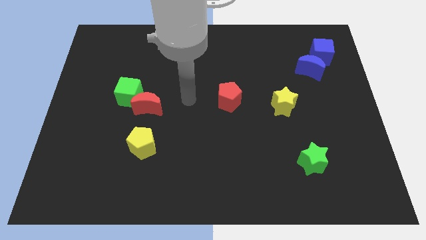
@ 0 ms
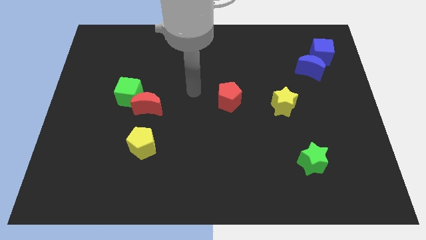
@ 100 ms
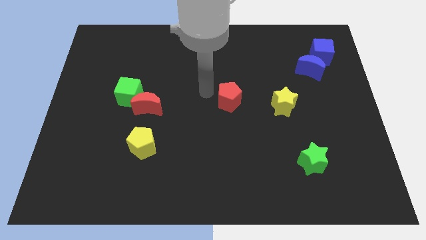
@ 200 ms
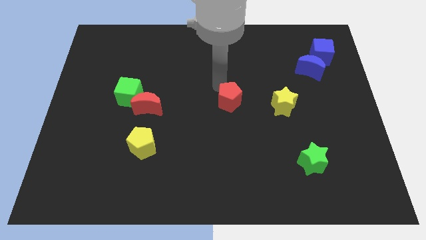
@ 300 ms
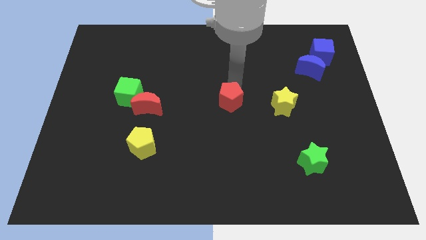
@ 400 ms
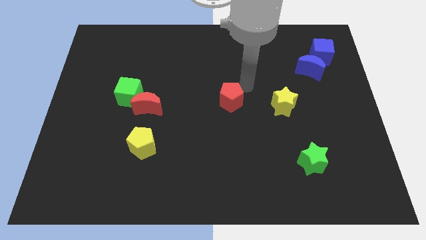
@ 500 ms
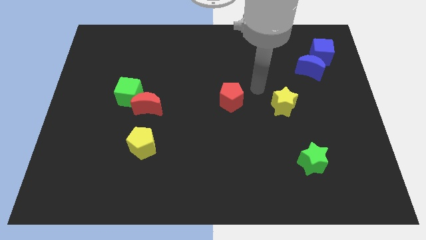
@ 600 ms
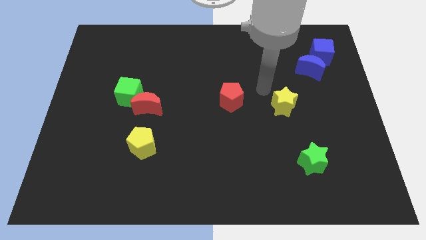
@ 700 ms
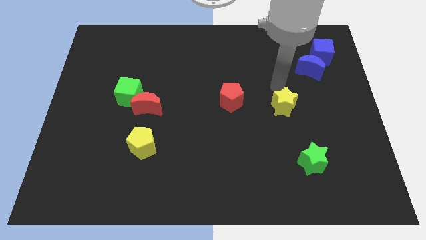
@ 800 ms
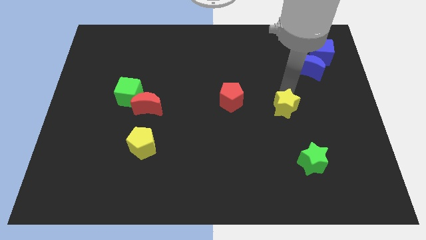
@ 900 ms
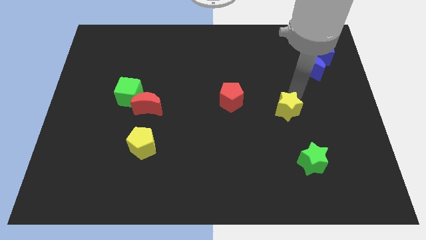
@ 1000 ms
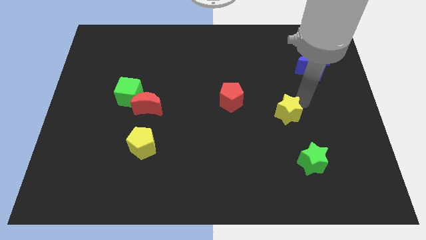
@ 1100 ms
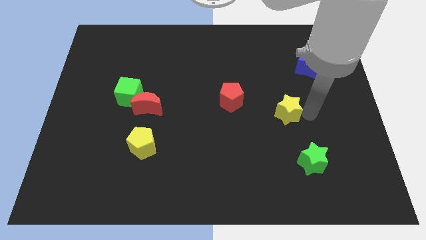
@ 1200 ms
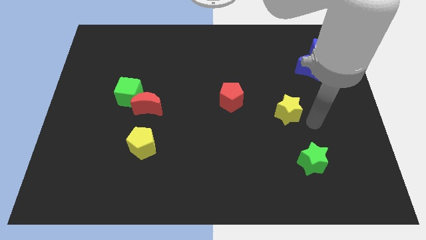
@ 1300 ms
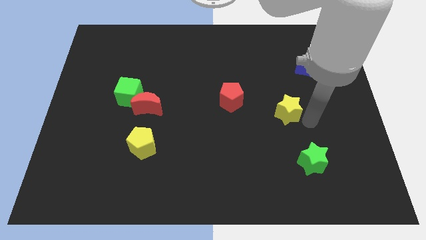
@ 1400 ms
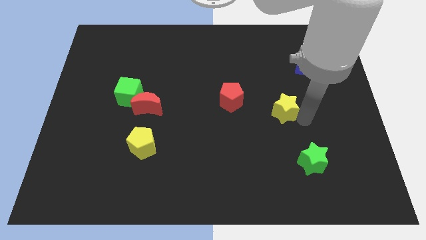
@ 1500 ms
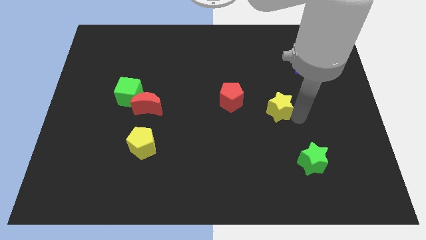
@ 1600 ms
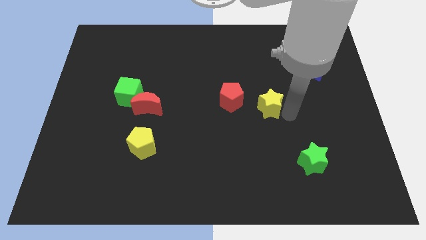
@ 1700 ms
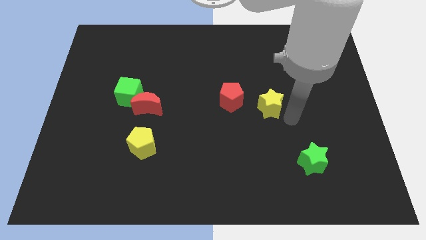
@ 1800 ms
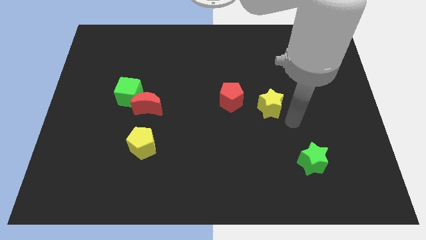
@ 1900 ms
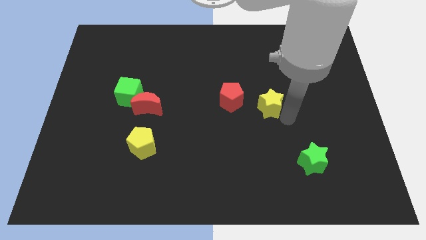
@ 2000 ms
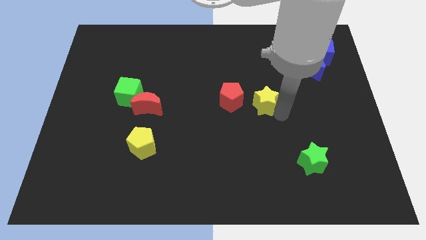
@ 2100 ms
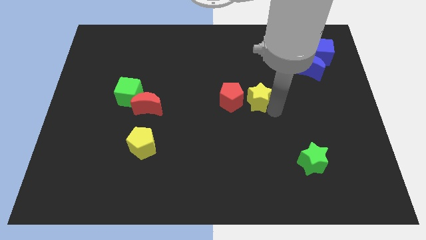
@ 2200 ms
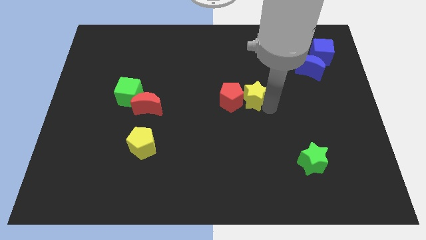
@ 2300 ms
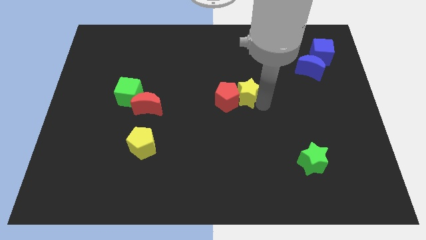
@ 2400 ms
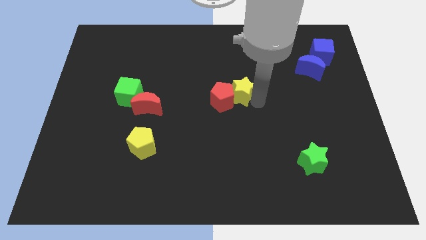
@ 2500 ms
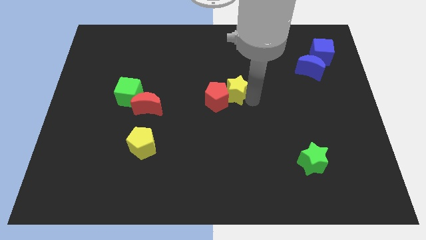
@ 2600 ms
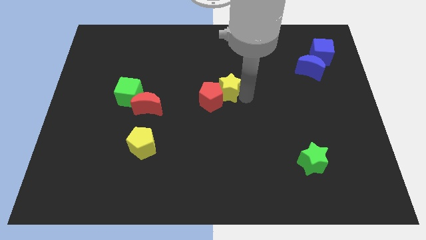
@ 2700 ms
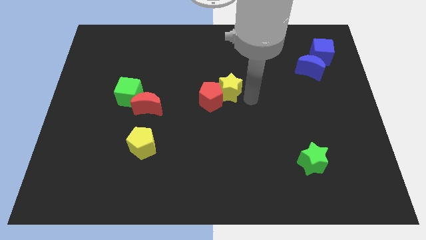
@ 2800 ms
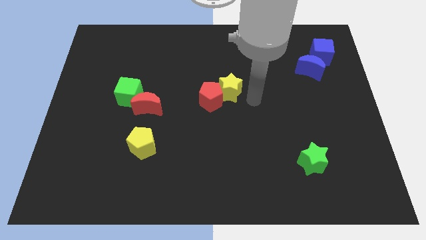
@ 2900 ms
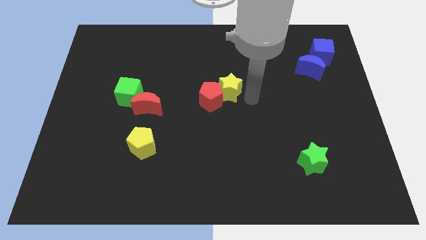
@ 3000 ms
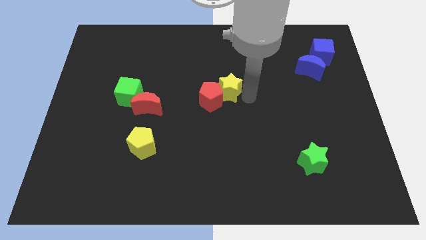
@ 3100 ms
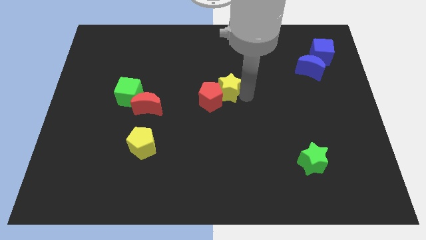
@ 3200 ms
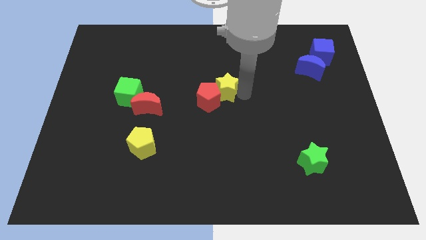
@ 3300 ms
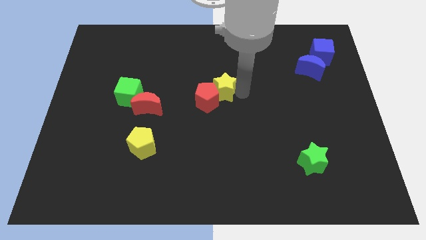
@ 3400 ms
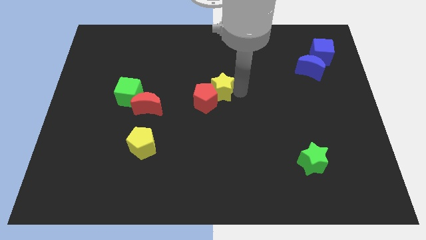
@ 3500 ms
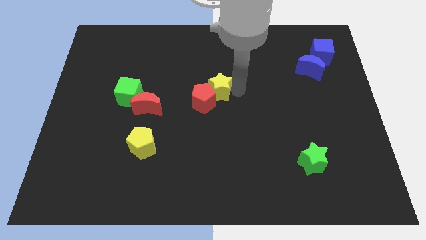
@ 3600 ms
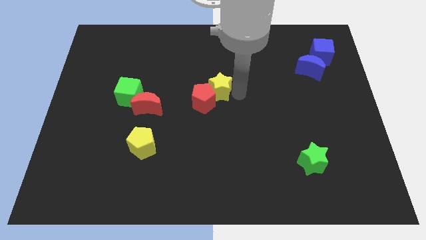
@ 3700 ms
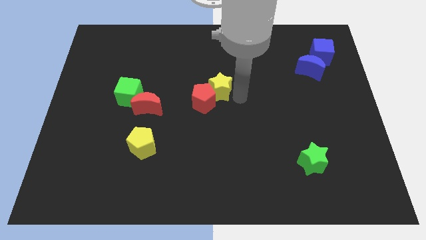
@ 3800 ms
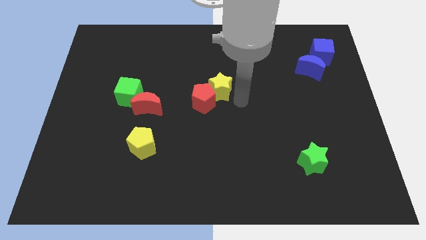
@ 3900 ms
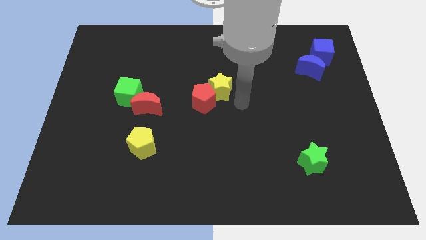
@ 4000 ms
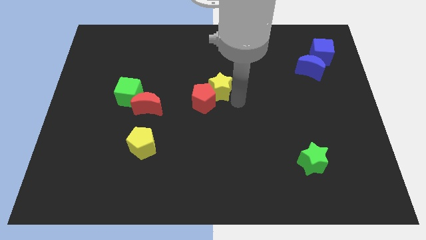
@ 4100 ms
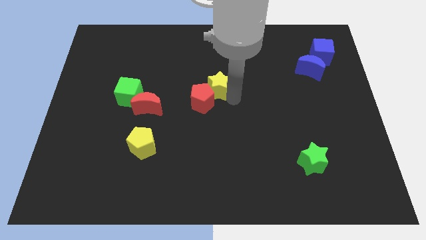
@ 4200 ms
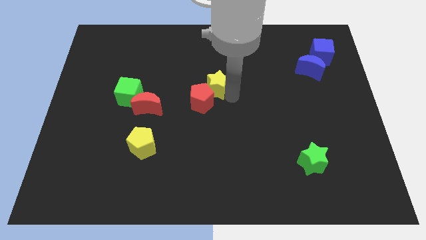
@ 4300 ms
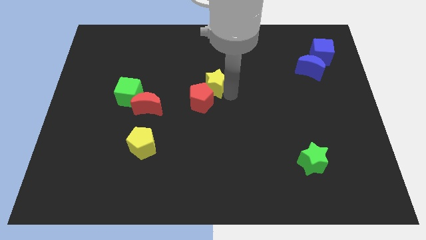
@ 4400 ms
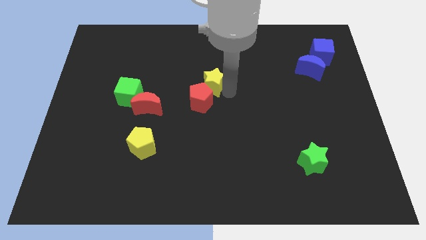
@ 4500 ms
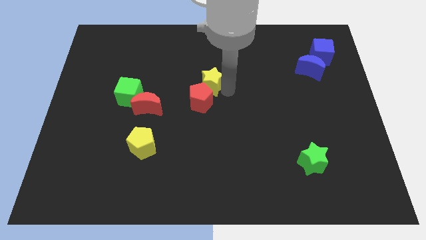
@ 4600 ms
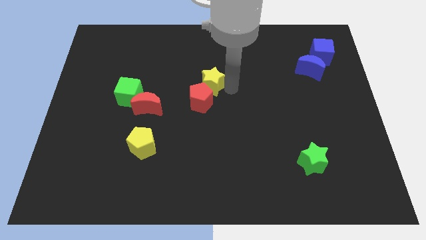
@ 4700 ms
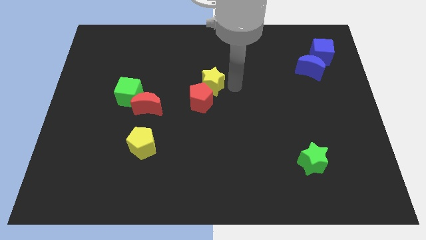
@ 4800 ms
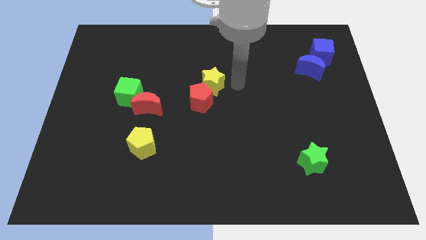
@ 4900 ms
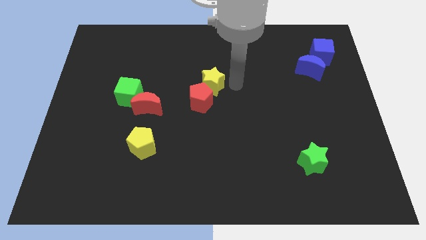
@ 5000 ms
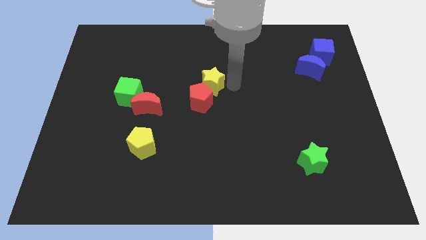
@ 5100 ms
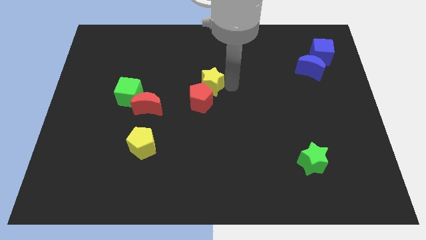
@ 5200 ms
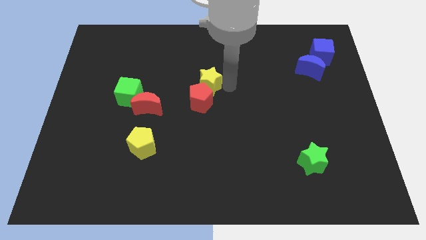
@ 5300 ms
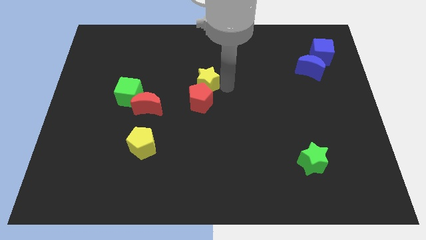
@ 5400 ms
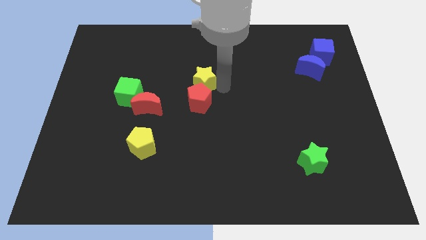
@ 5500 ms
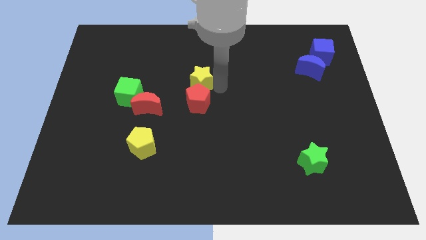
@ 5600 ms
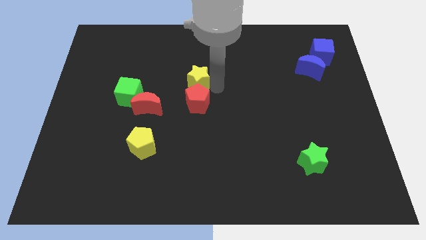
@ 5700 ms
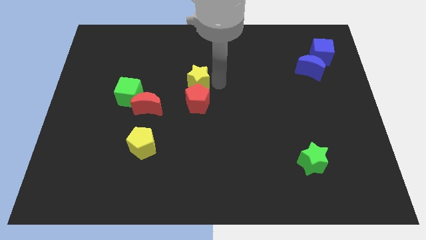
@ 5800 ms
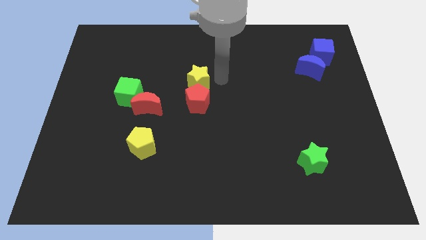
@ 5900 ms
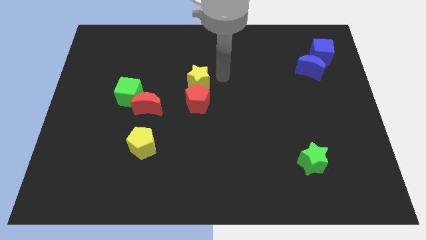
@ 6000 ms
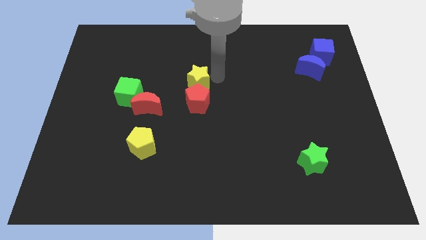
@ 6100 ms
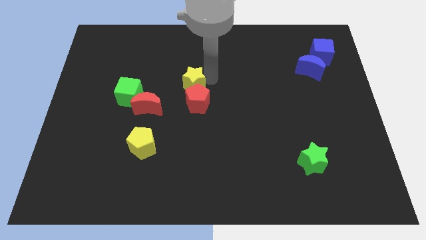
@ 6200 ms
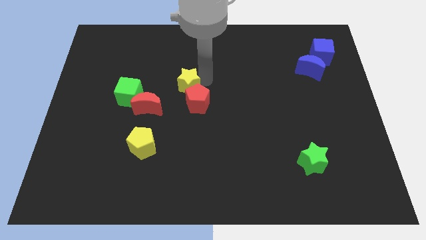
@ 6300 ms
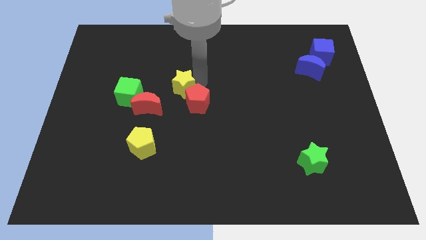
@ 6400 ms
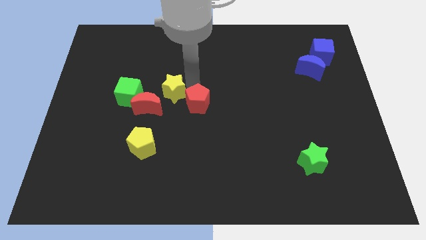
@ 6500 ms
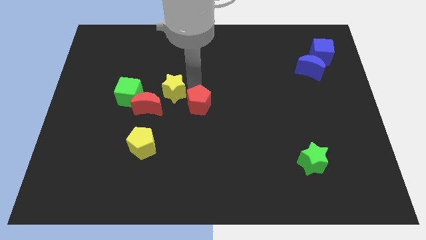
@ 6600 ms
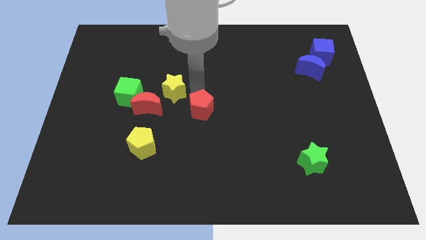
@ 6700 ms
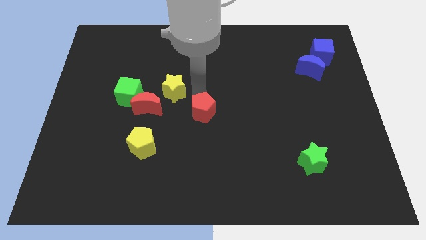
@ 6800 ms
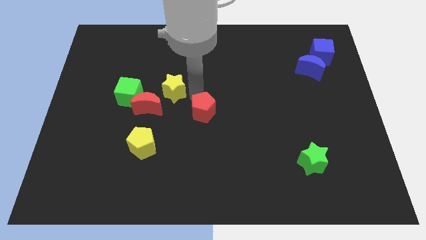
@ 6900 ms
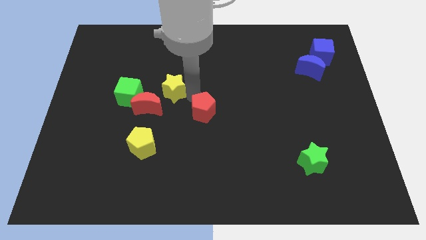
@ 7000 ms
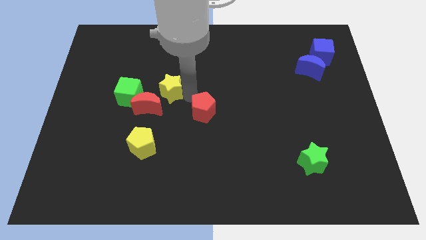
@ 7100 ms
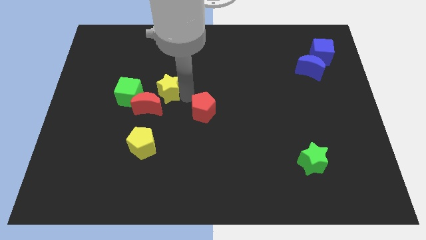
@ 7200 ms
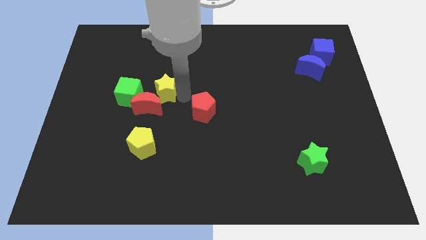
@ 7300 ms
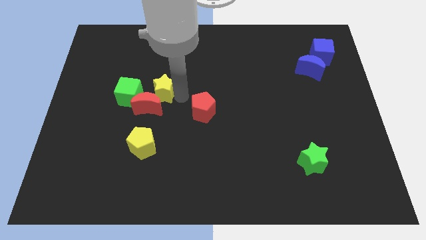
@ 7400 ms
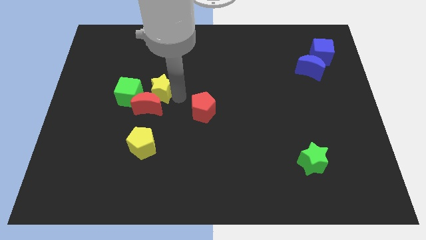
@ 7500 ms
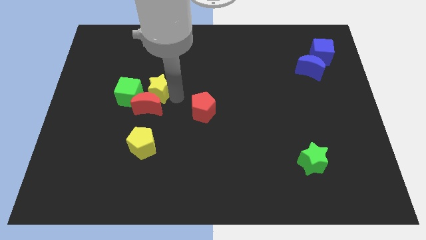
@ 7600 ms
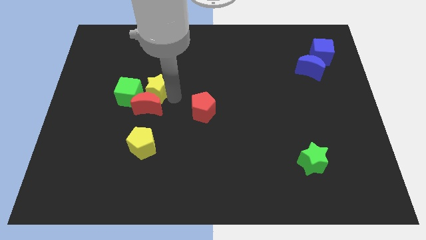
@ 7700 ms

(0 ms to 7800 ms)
slide the yellow star to the top left of the red moon
